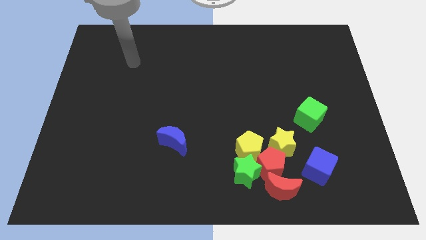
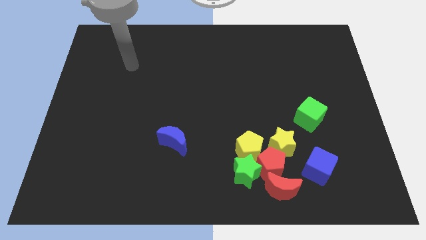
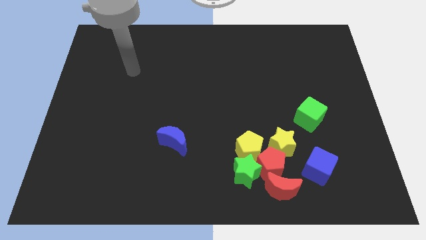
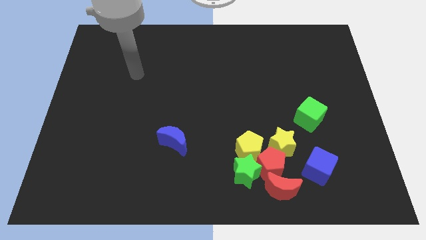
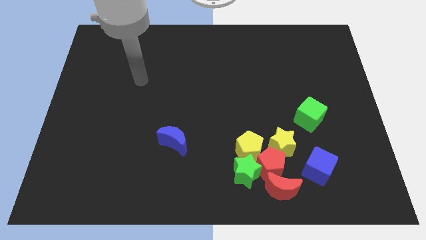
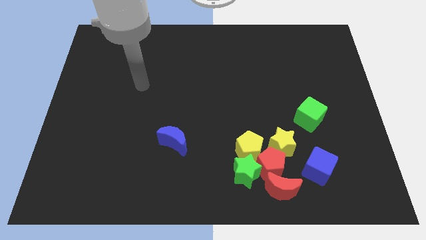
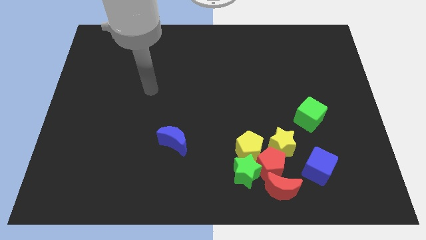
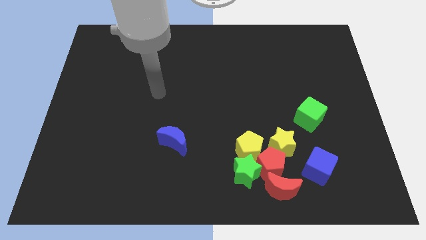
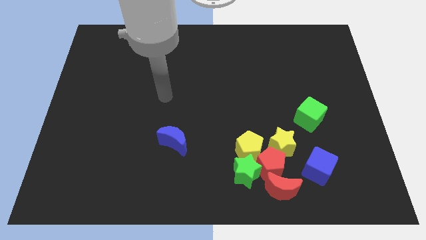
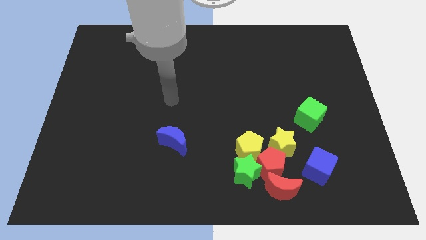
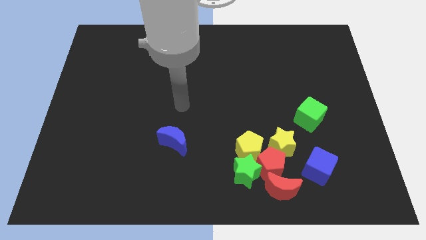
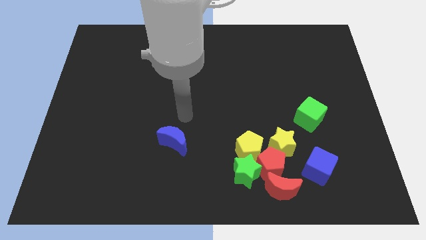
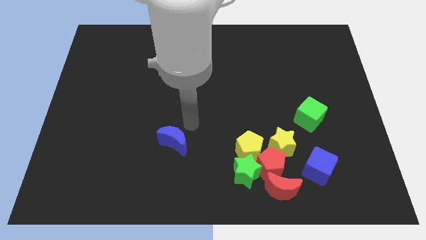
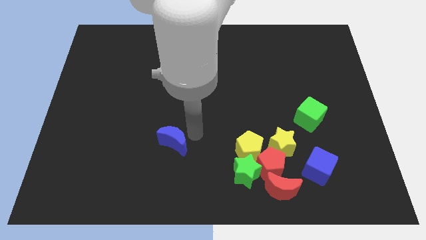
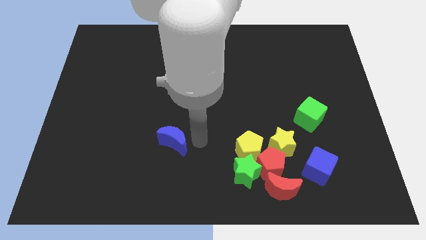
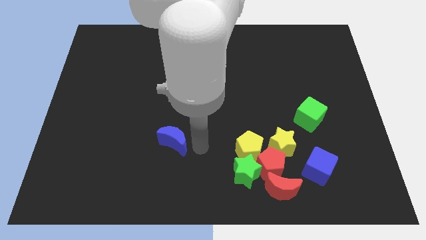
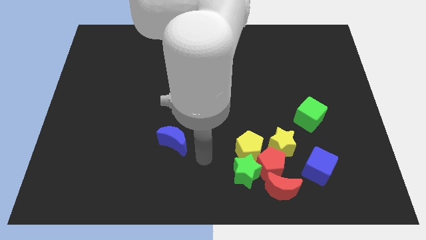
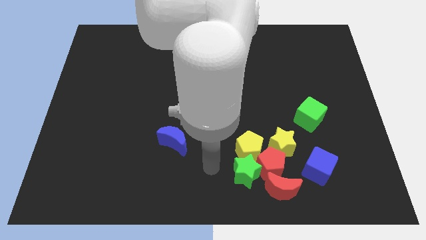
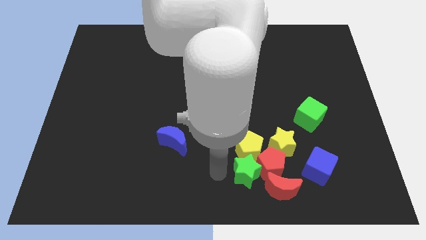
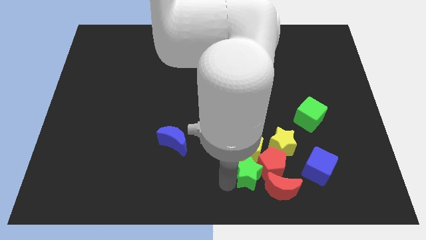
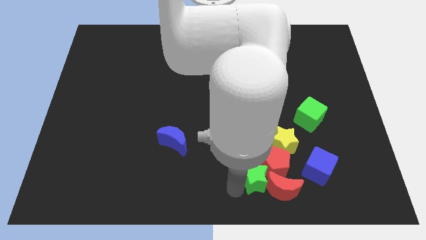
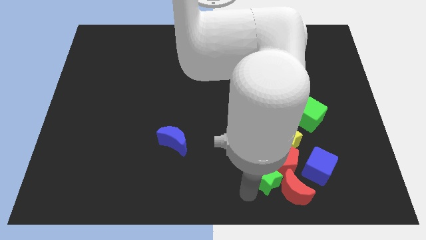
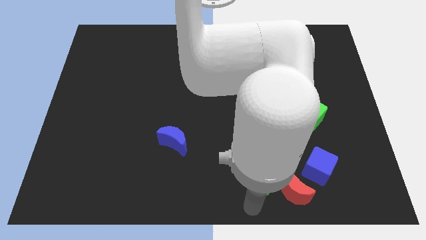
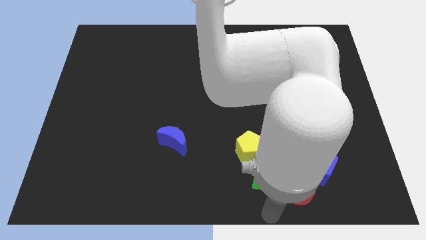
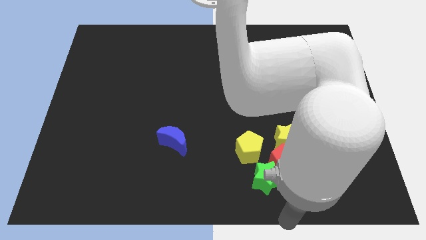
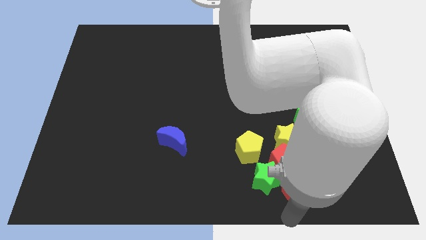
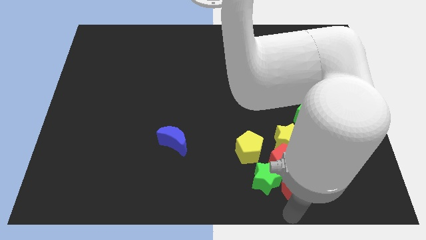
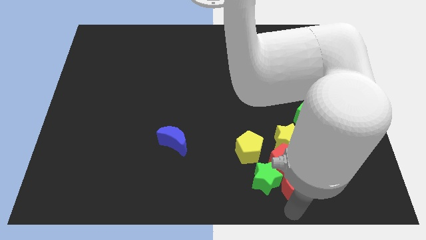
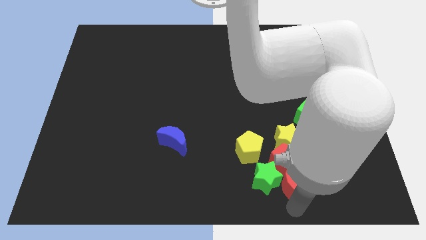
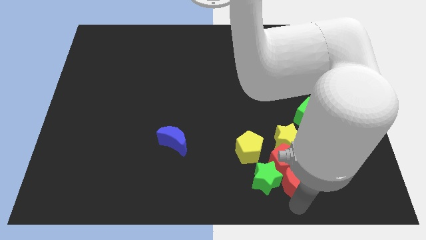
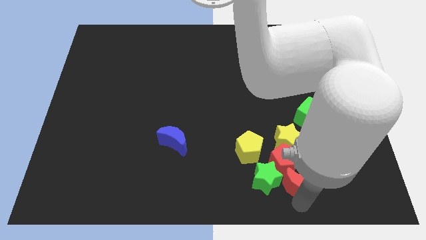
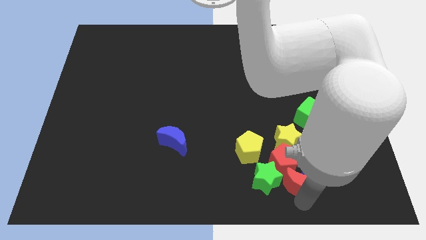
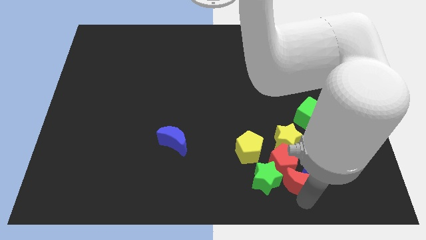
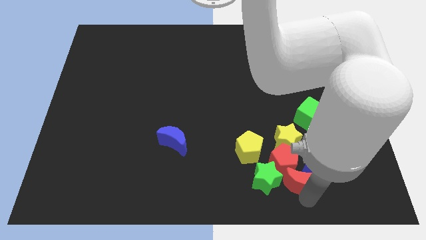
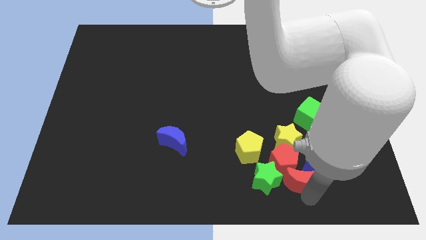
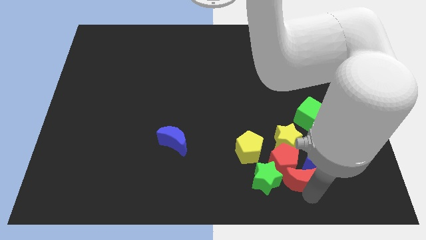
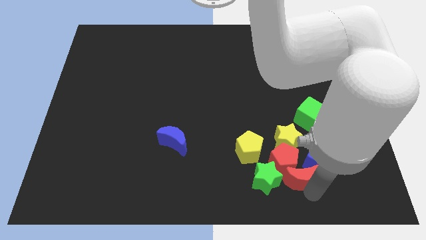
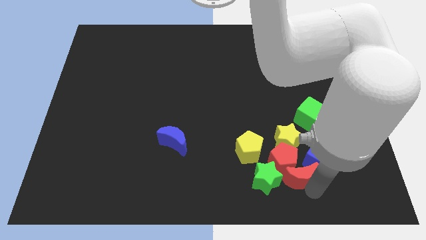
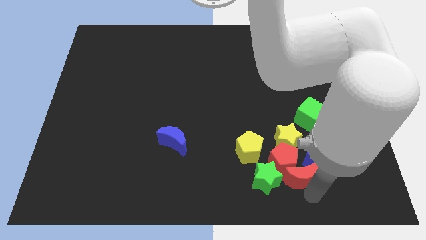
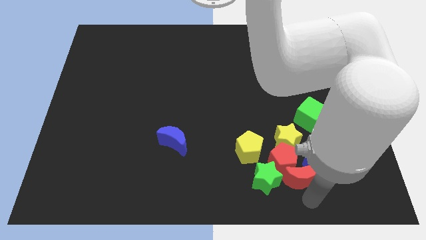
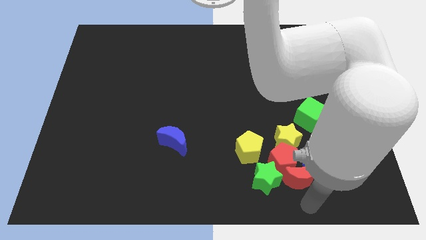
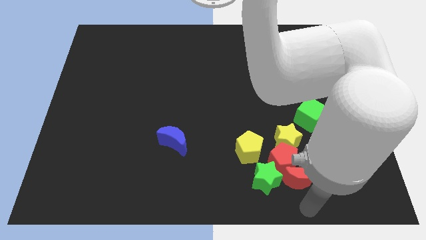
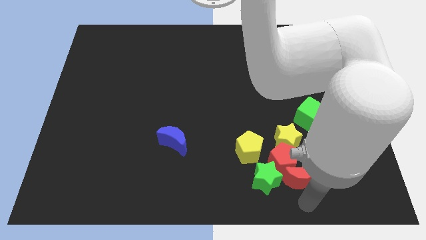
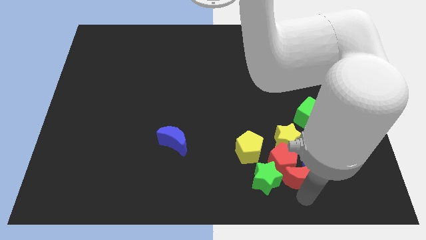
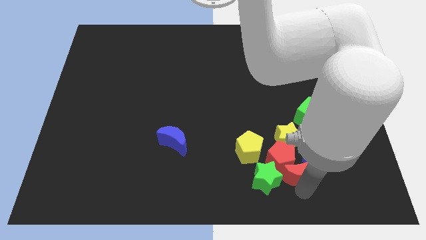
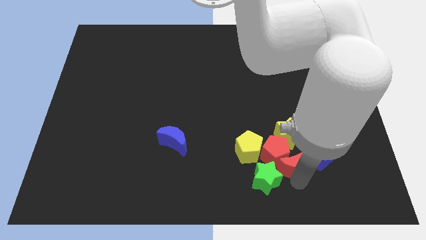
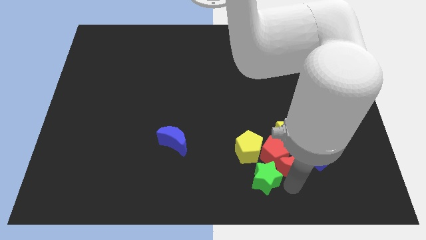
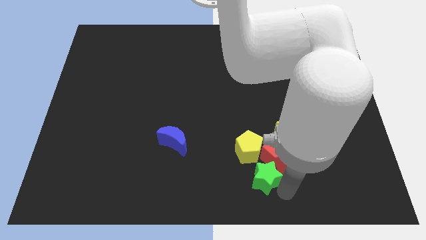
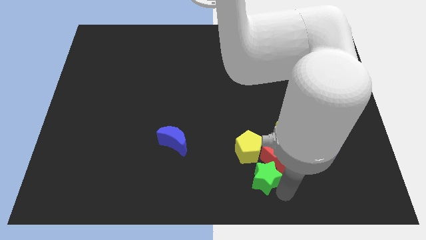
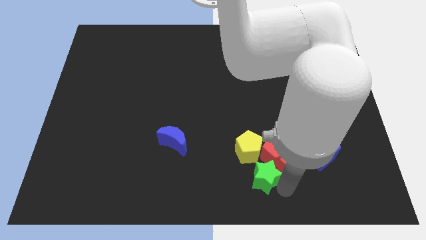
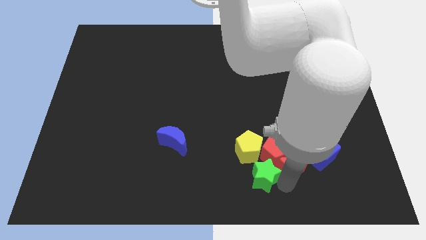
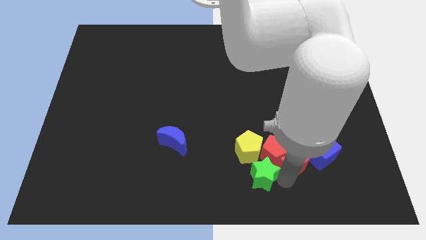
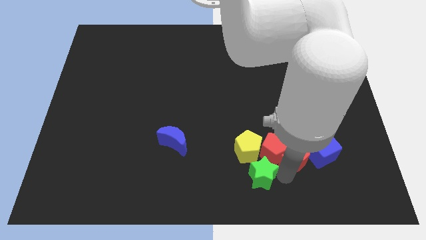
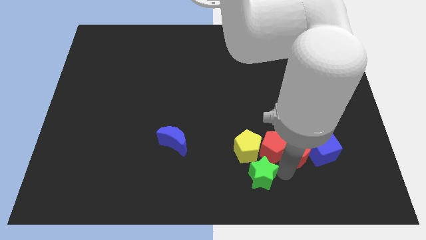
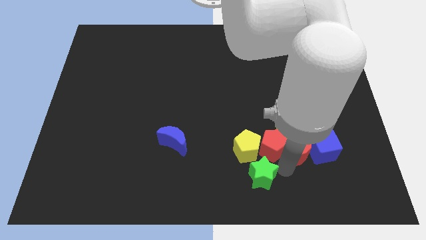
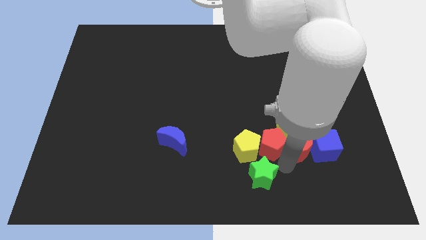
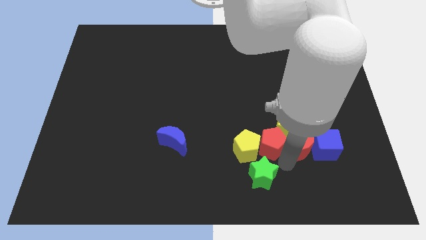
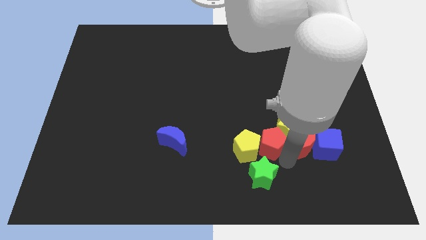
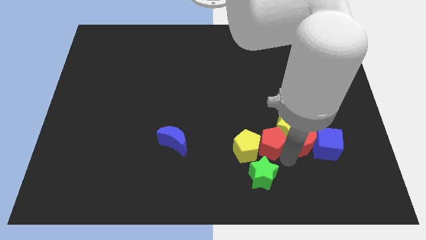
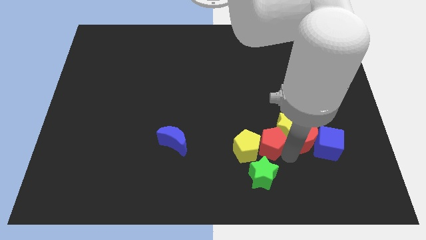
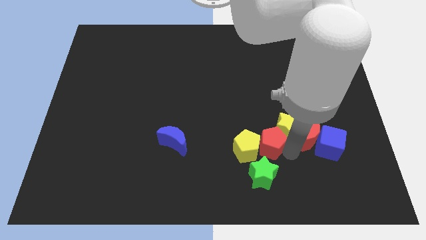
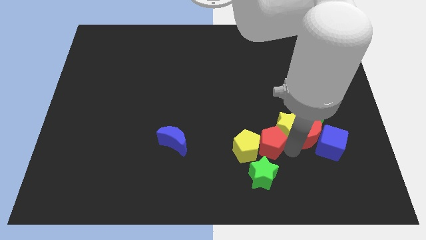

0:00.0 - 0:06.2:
slide the red moon towards the green cube
